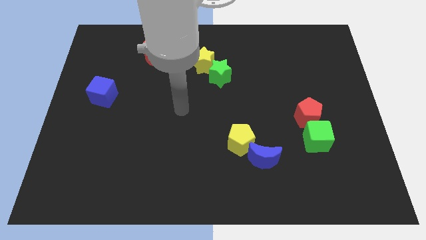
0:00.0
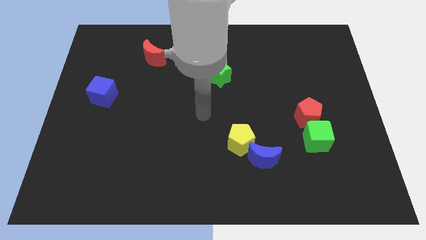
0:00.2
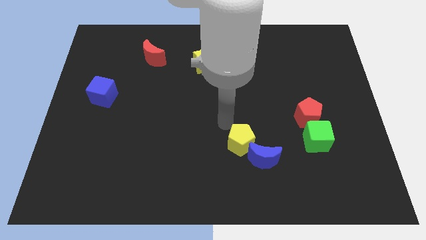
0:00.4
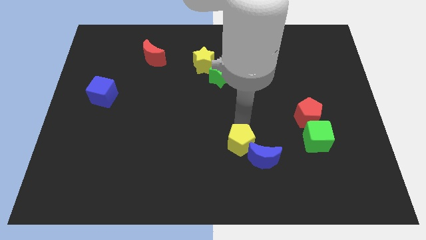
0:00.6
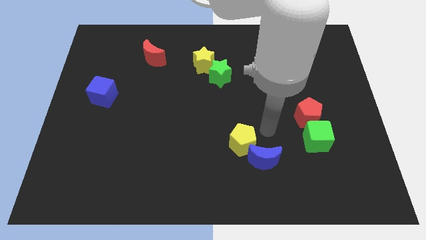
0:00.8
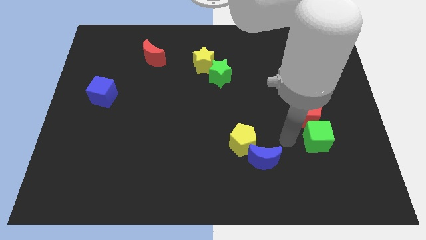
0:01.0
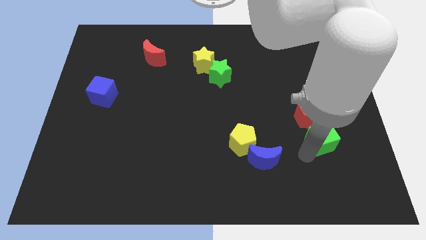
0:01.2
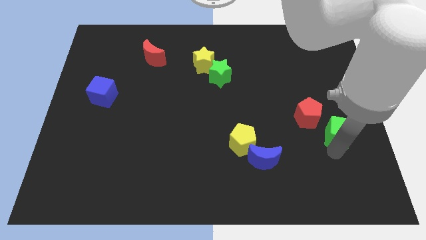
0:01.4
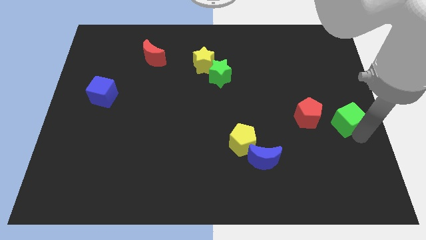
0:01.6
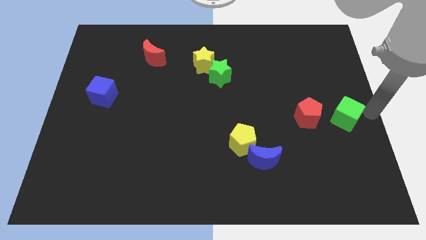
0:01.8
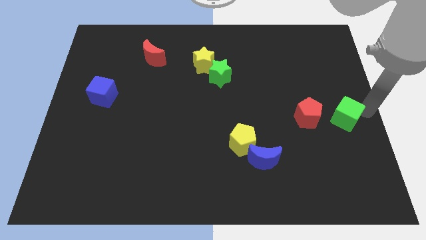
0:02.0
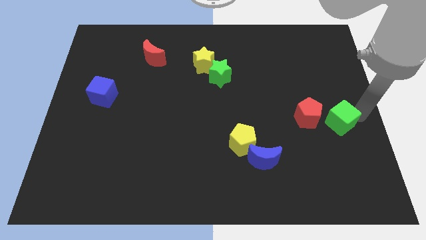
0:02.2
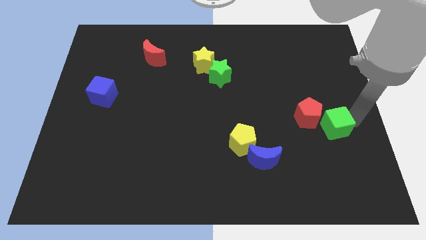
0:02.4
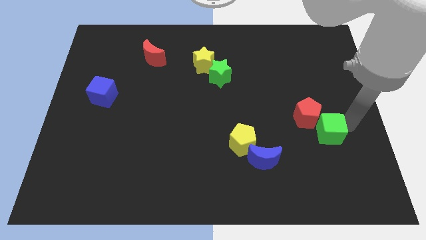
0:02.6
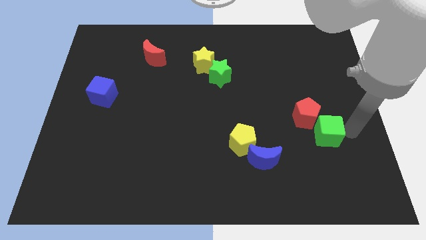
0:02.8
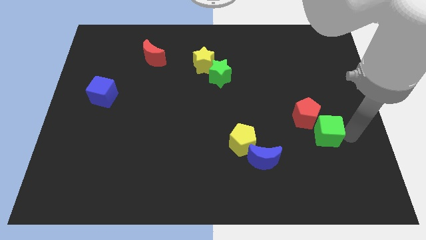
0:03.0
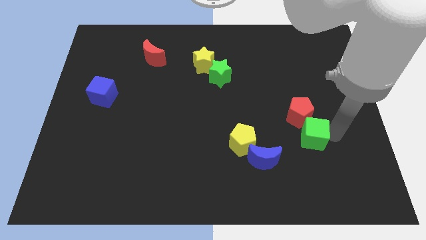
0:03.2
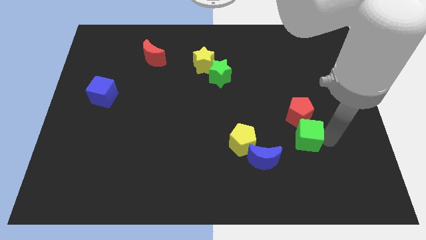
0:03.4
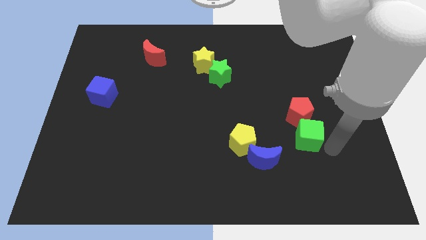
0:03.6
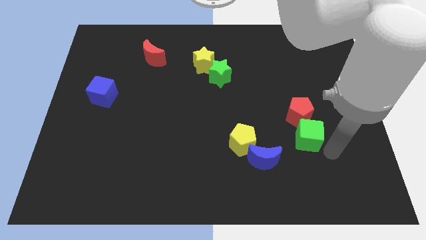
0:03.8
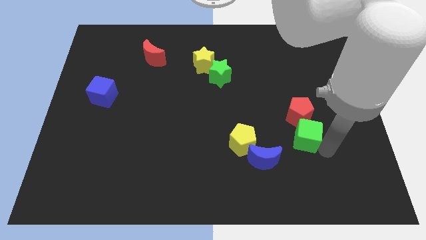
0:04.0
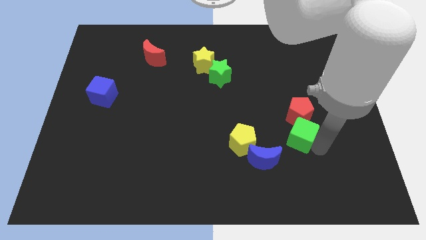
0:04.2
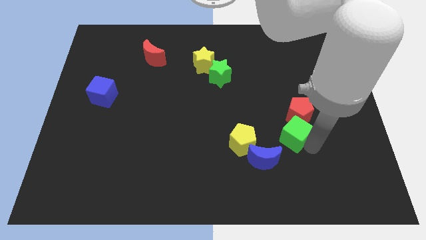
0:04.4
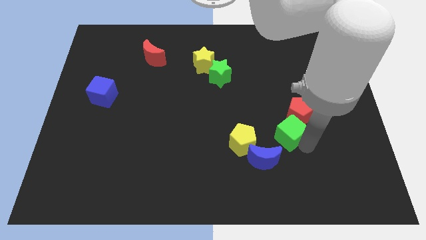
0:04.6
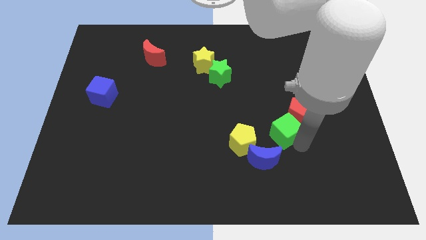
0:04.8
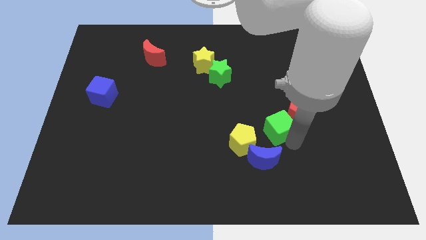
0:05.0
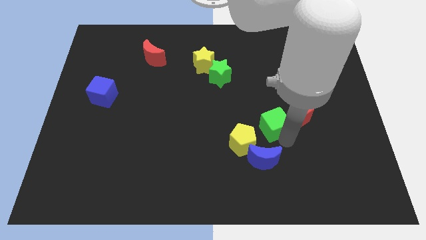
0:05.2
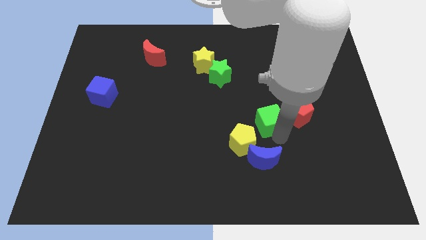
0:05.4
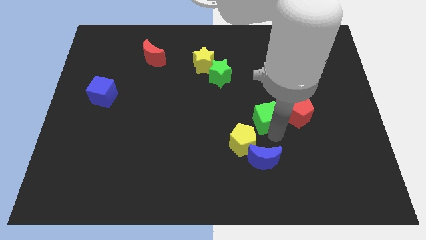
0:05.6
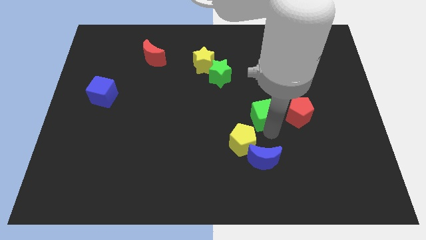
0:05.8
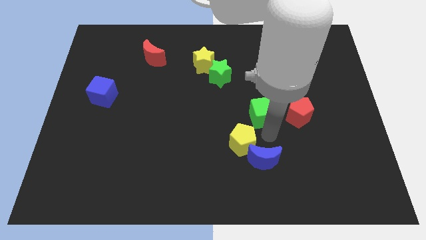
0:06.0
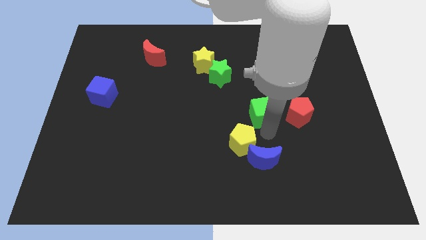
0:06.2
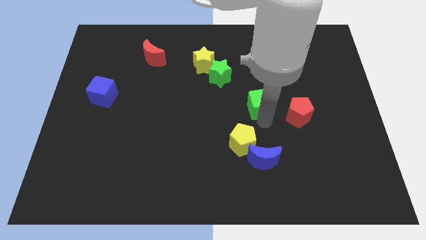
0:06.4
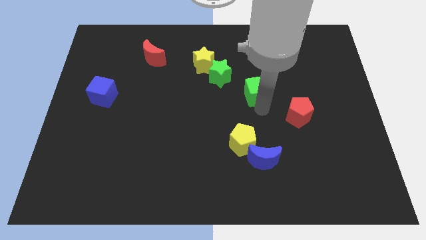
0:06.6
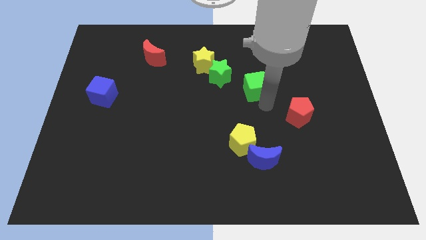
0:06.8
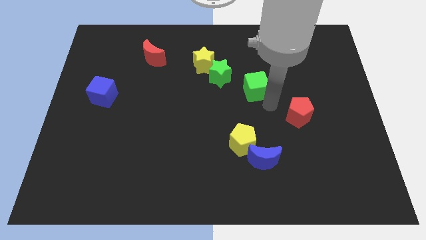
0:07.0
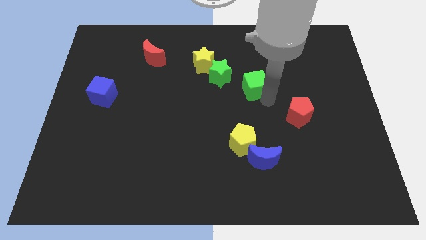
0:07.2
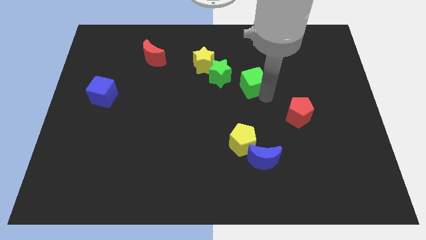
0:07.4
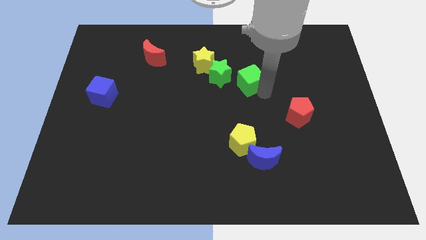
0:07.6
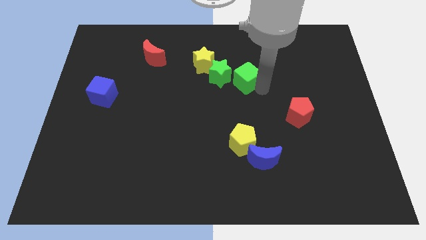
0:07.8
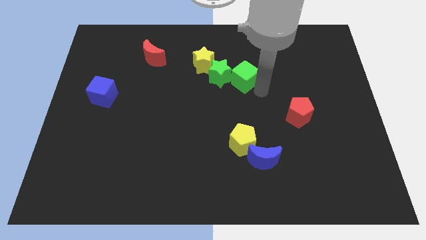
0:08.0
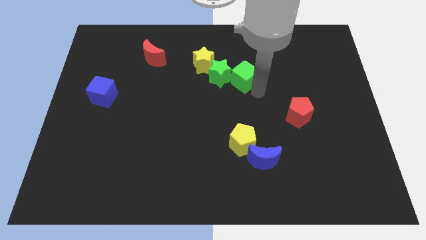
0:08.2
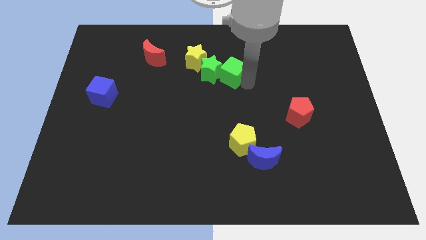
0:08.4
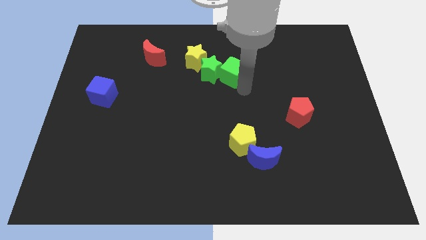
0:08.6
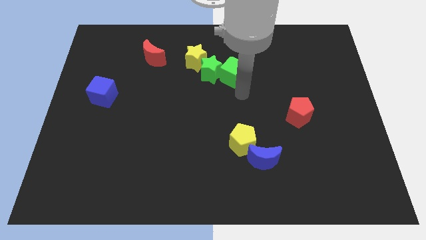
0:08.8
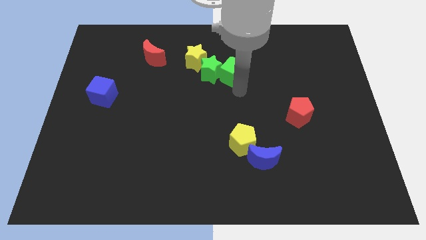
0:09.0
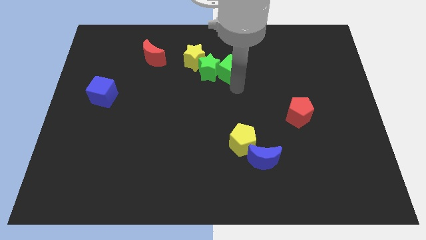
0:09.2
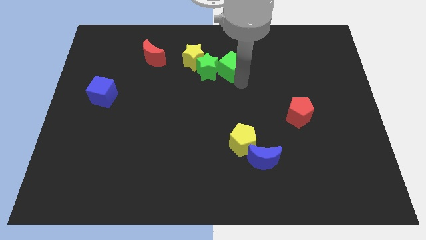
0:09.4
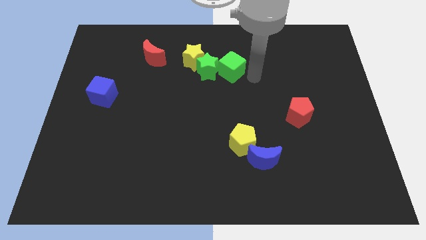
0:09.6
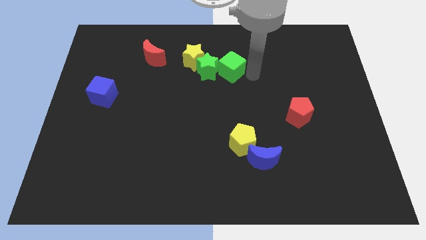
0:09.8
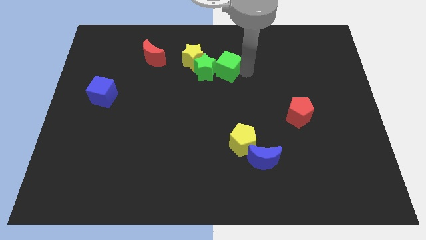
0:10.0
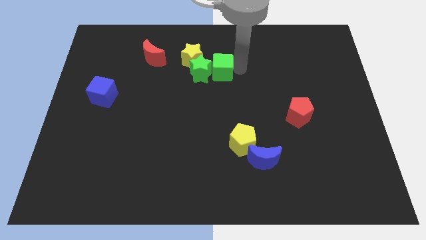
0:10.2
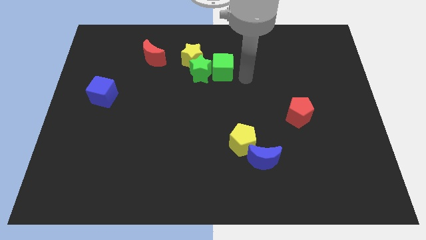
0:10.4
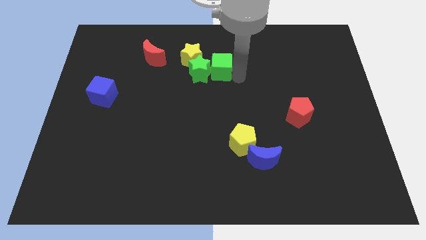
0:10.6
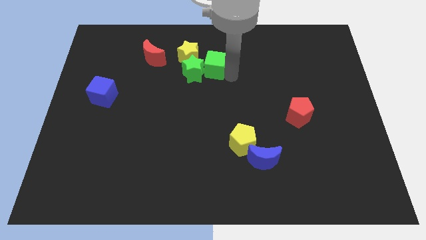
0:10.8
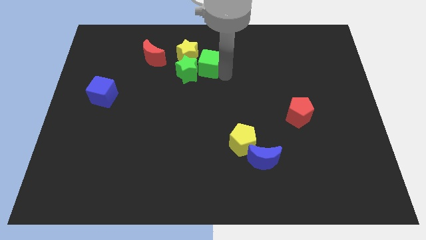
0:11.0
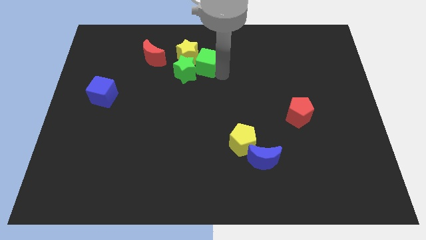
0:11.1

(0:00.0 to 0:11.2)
put the green cube close to the yellow star

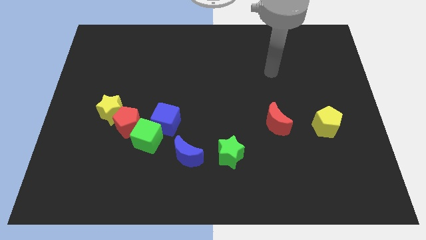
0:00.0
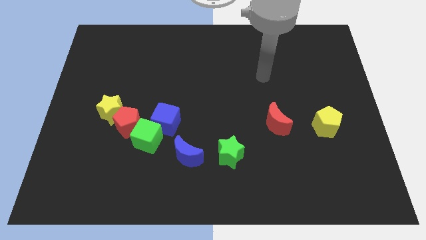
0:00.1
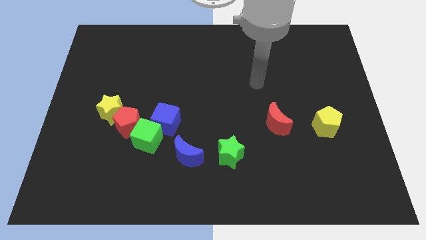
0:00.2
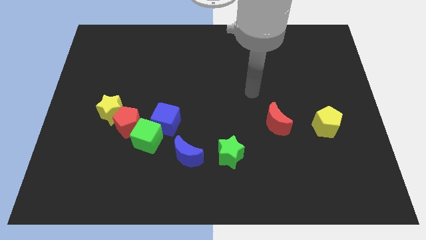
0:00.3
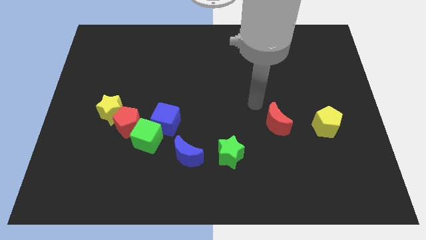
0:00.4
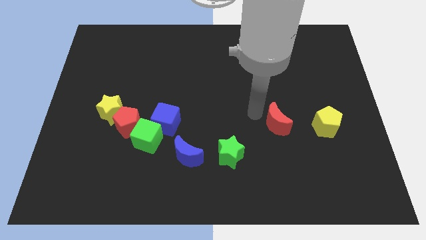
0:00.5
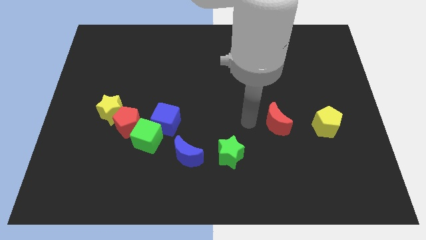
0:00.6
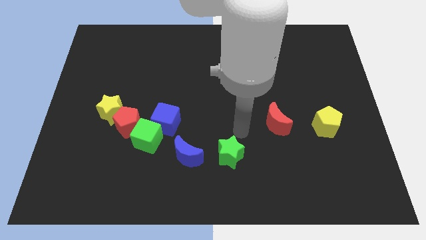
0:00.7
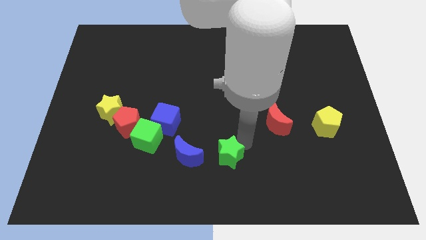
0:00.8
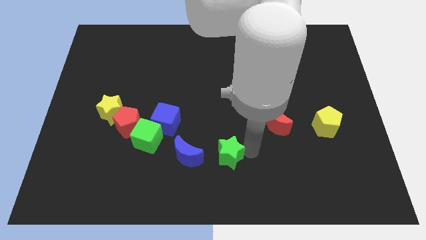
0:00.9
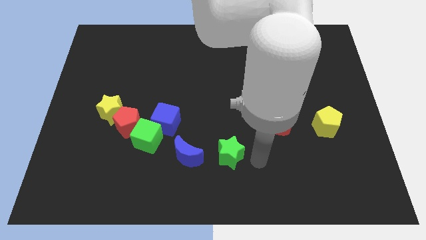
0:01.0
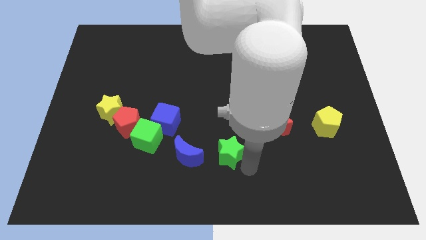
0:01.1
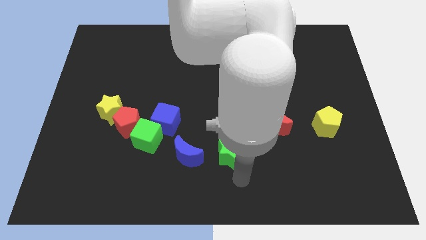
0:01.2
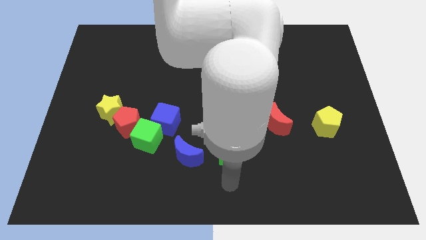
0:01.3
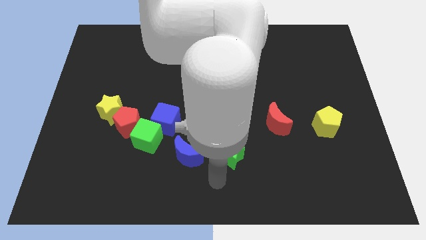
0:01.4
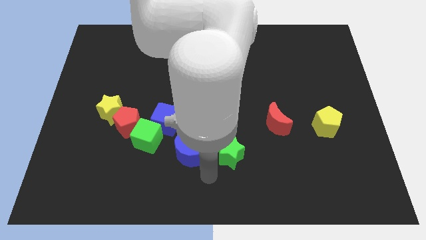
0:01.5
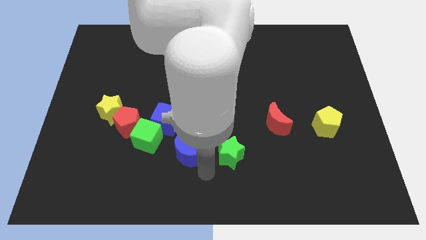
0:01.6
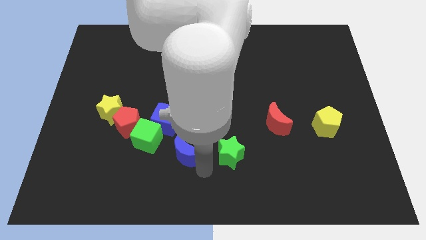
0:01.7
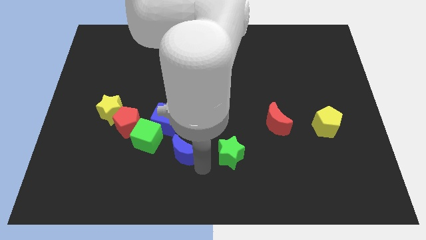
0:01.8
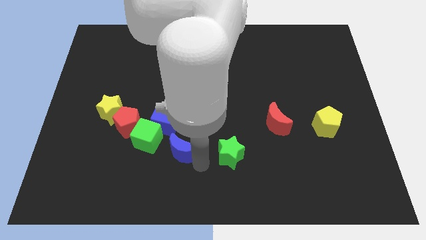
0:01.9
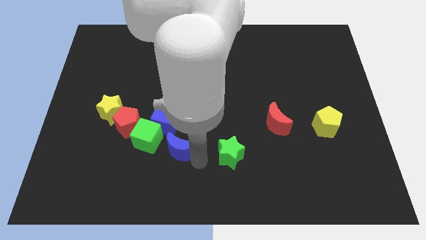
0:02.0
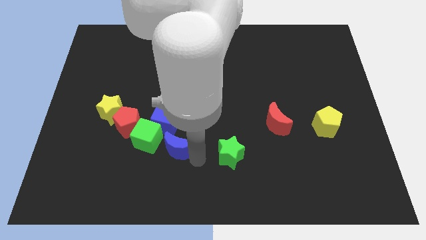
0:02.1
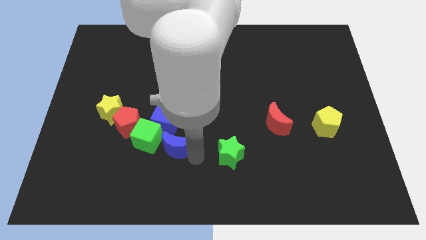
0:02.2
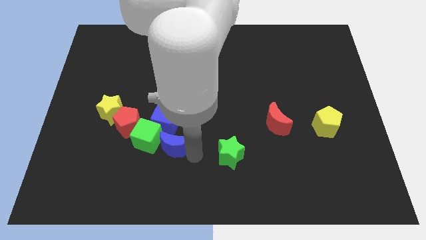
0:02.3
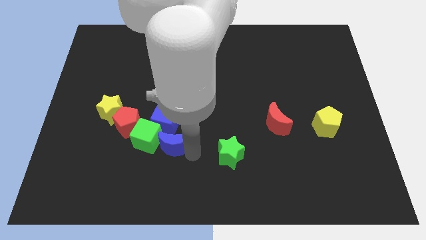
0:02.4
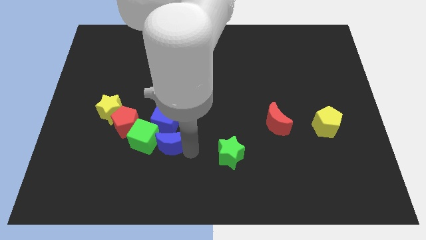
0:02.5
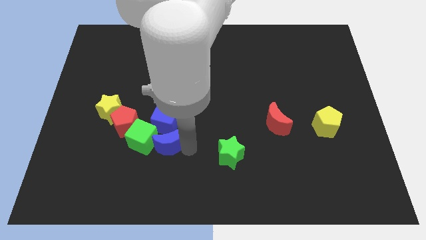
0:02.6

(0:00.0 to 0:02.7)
slide the blue moon close to the blue cube
